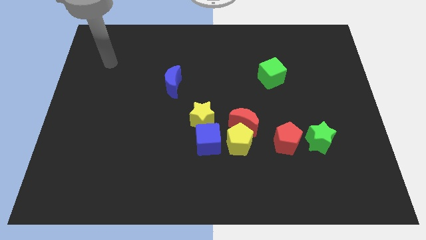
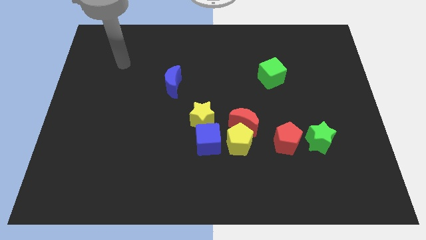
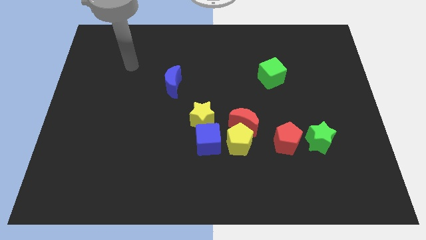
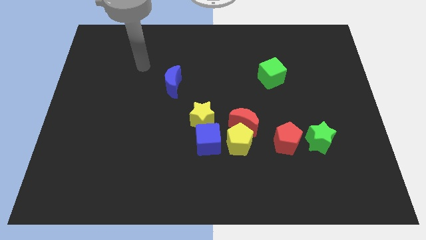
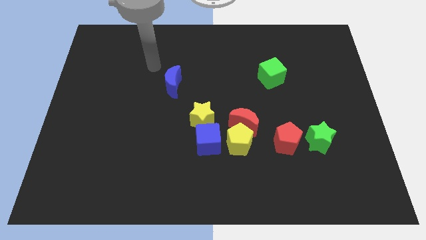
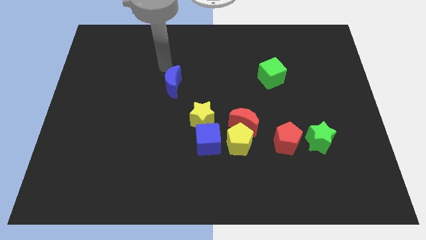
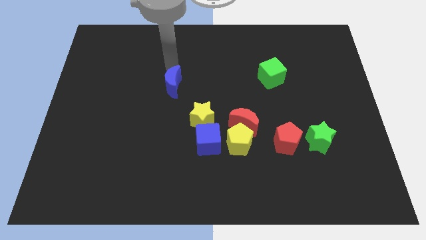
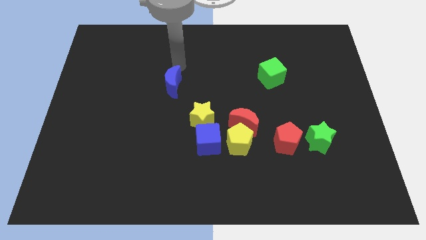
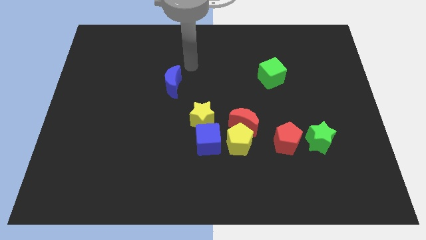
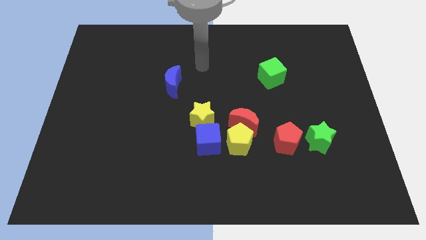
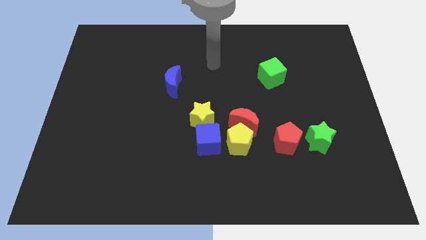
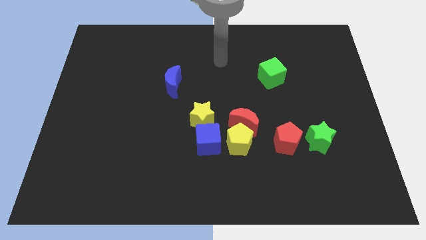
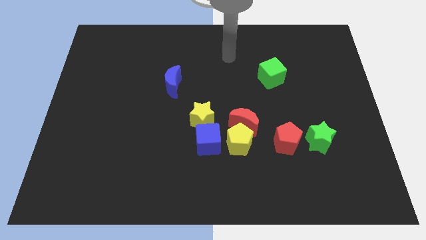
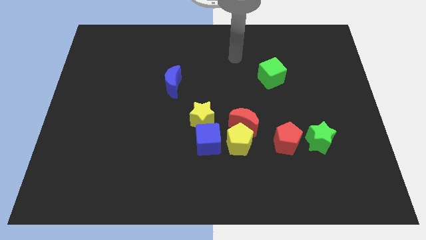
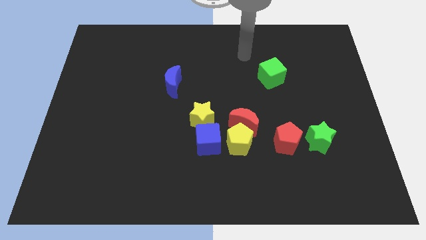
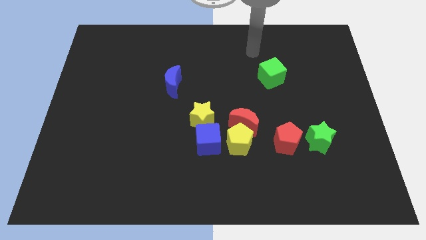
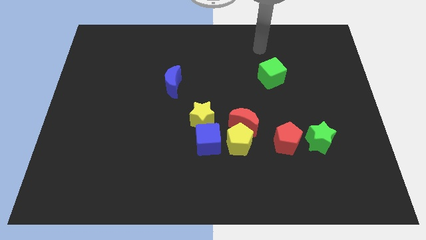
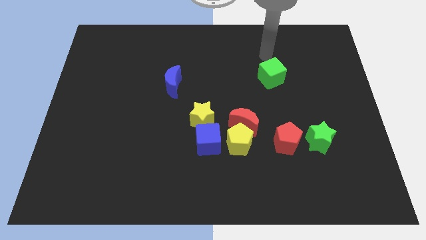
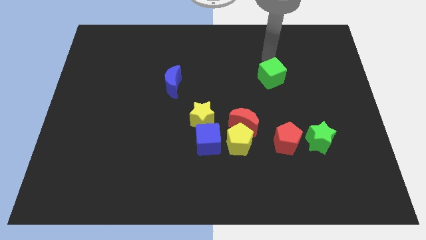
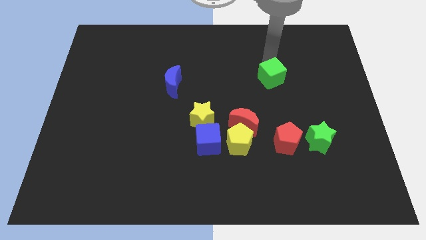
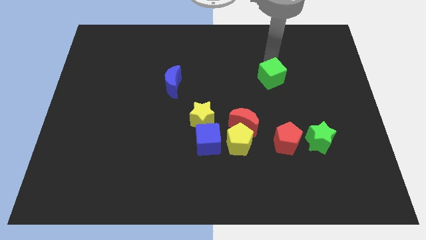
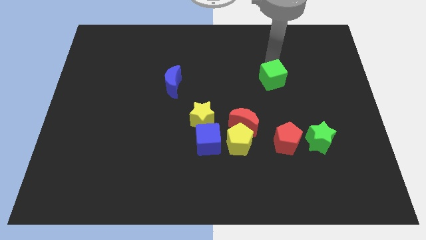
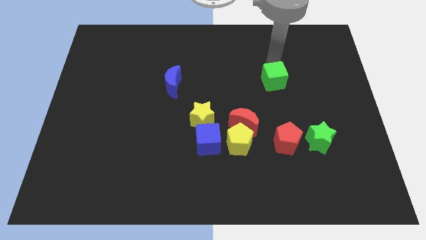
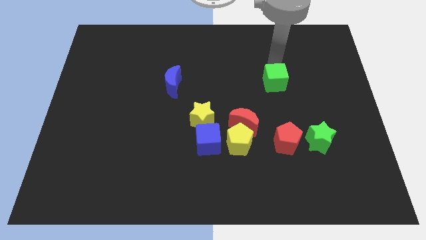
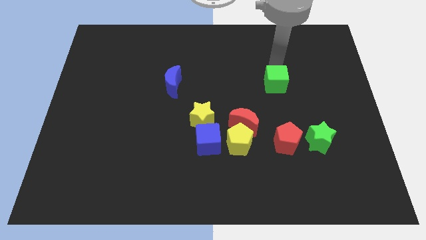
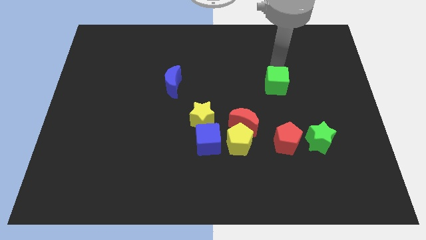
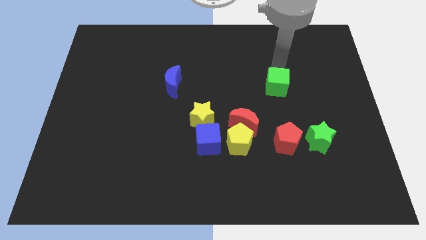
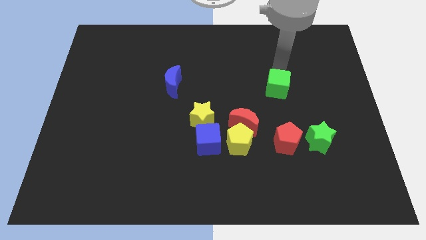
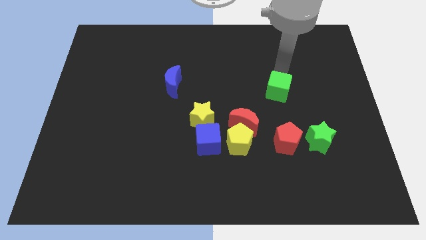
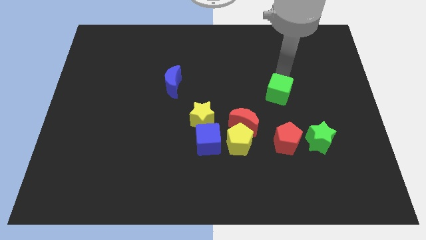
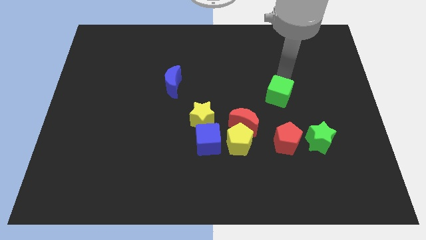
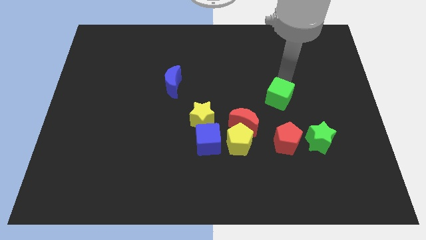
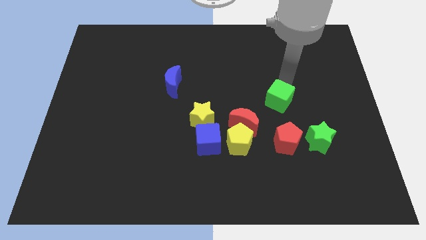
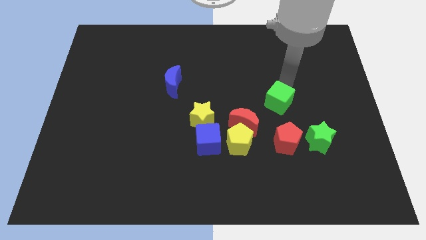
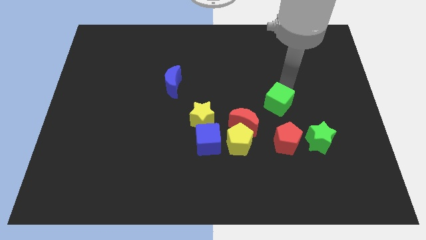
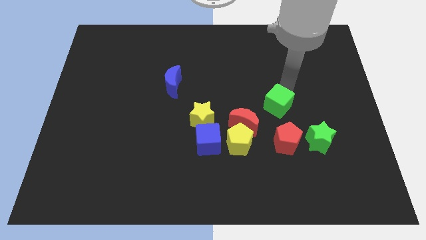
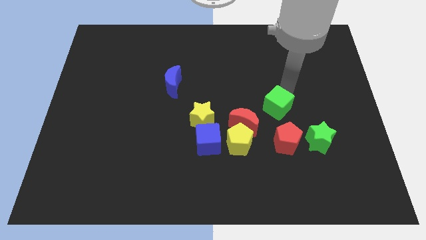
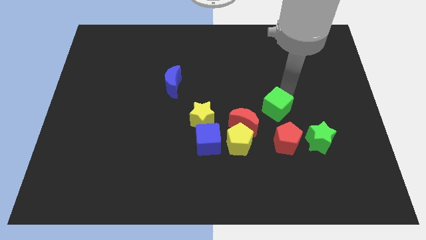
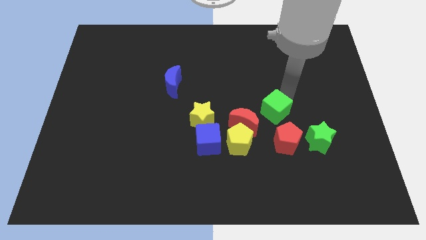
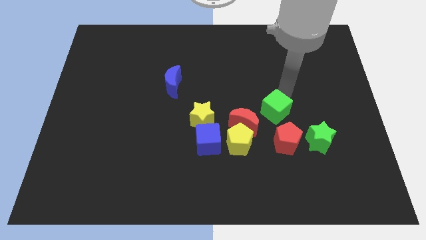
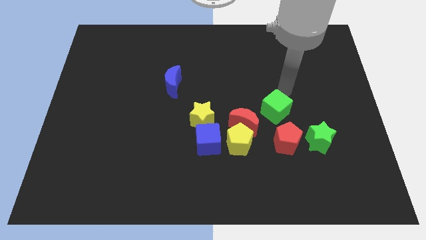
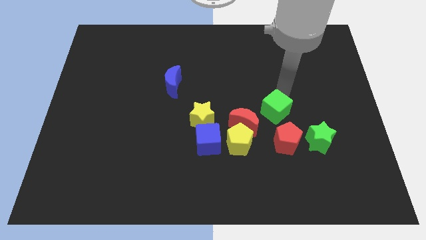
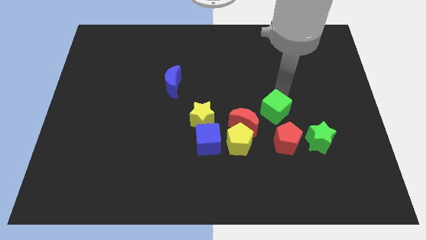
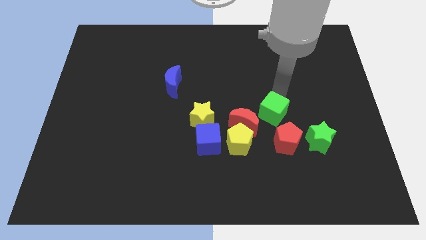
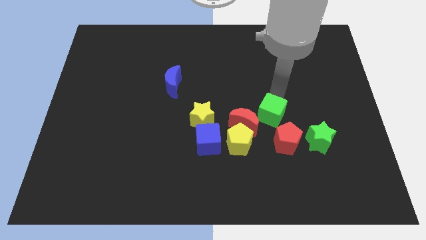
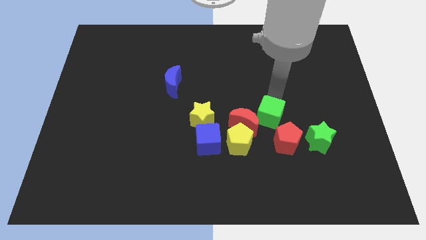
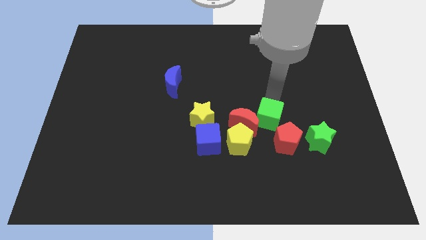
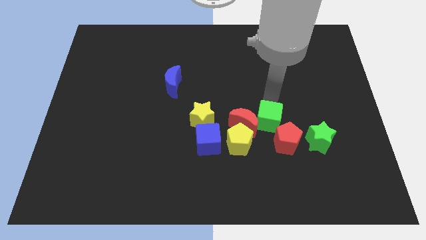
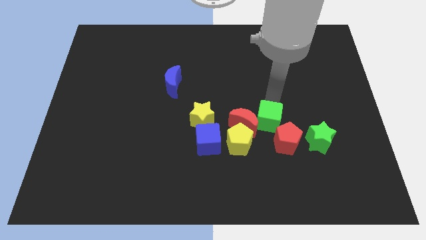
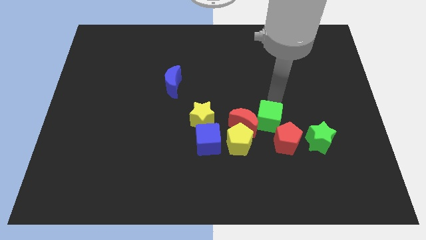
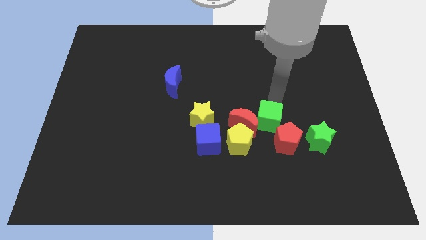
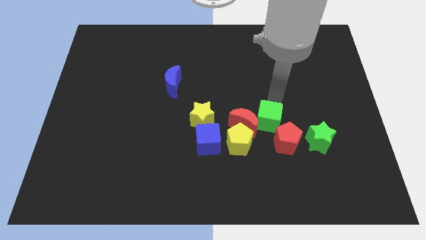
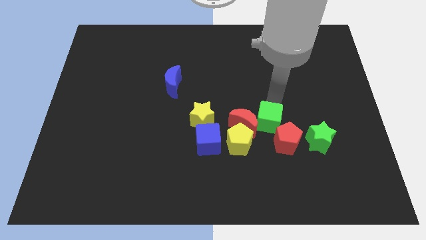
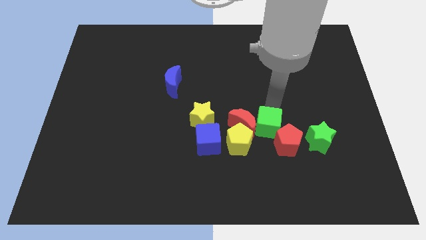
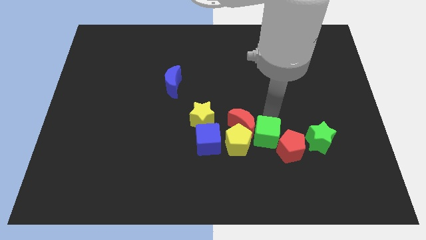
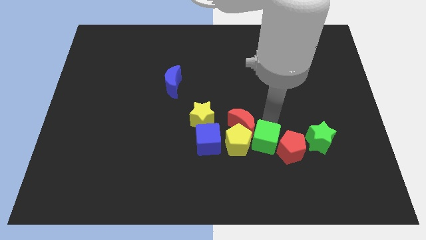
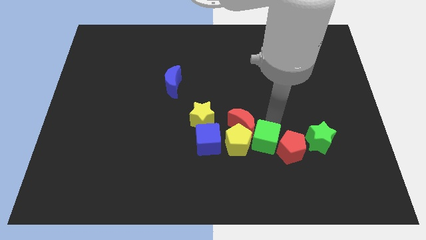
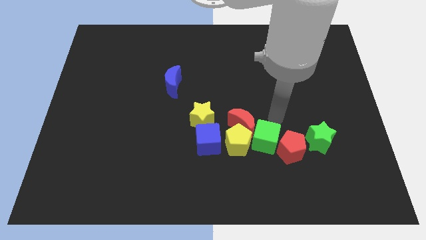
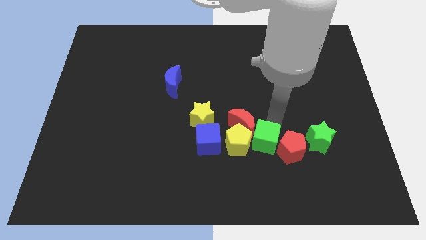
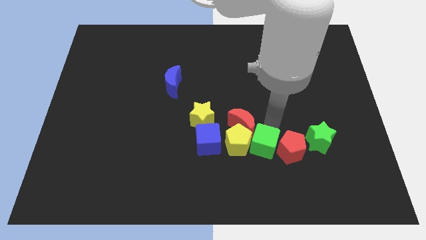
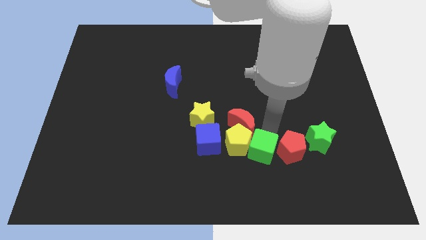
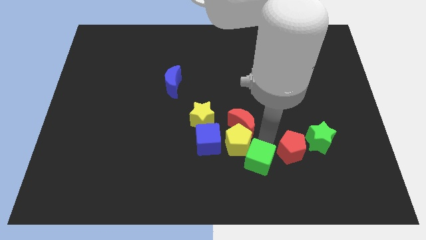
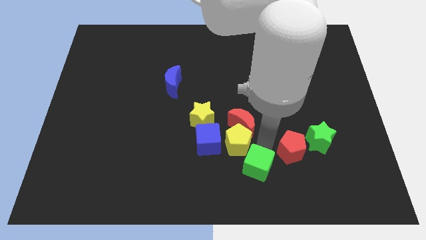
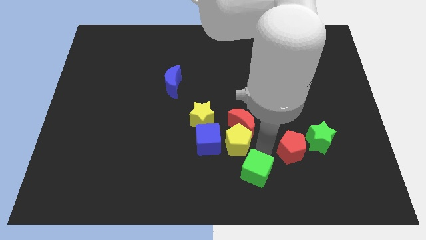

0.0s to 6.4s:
move the green cube to the bottom
